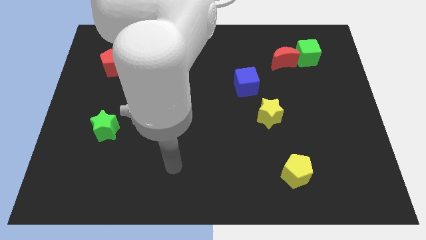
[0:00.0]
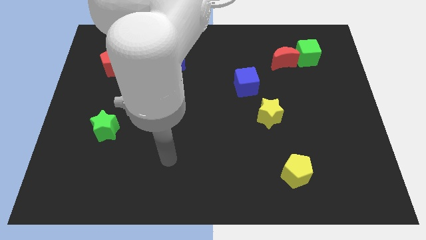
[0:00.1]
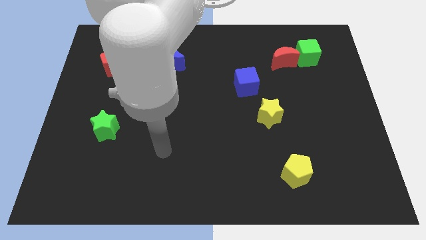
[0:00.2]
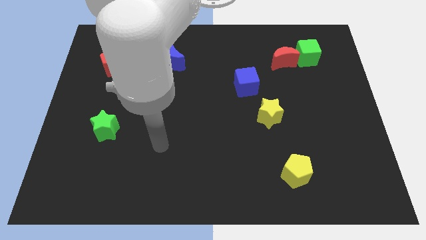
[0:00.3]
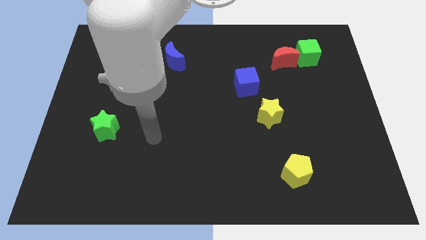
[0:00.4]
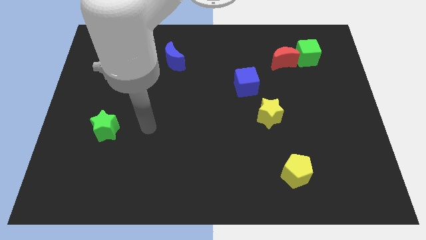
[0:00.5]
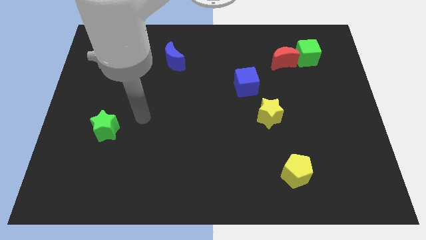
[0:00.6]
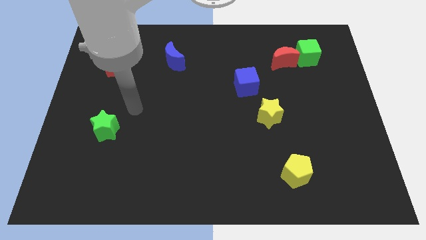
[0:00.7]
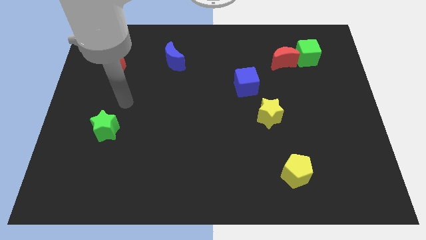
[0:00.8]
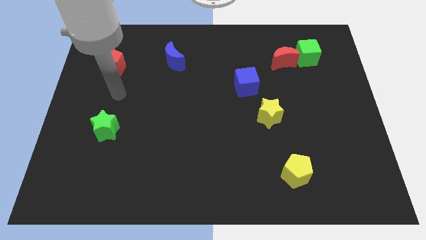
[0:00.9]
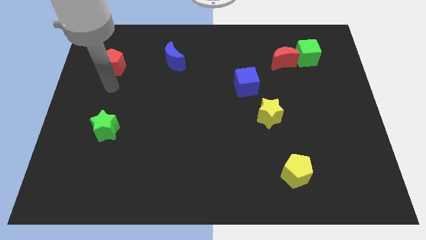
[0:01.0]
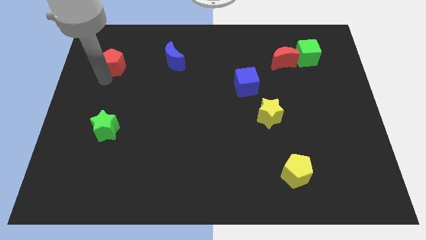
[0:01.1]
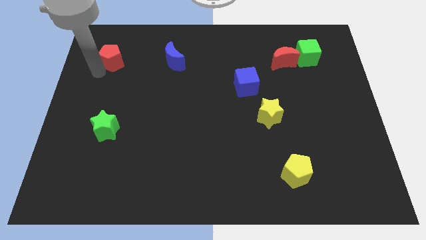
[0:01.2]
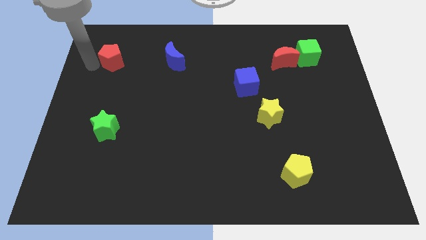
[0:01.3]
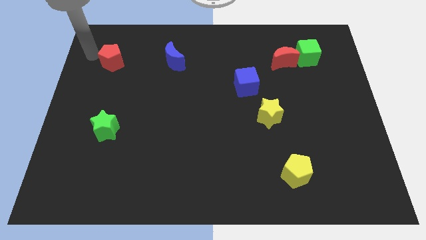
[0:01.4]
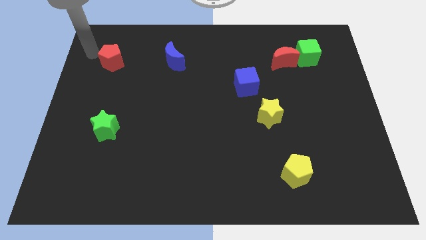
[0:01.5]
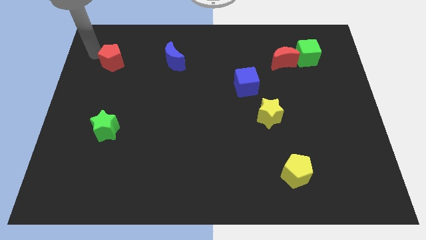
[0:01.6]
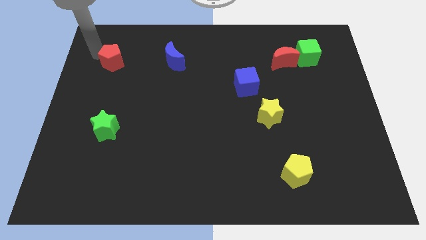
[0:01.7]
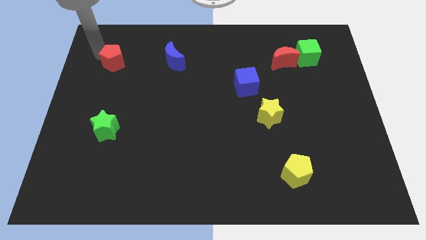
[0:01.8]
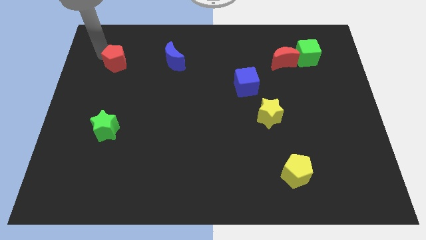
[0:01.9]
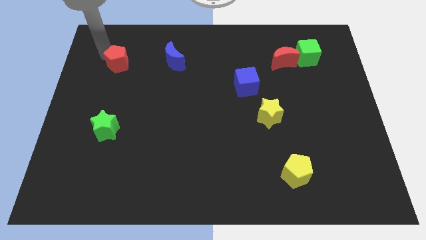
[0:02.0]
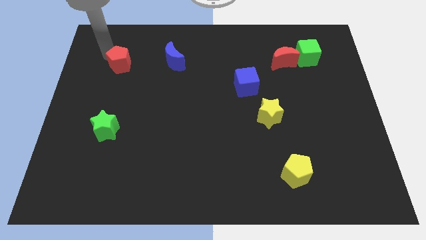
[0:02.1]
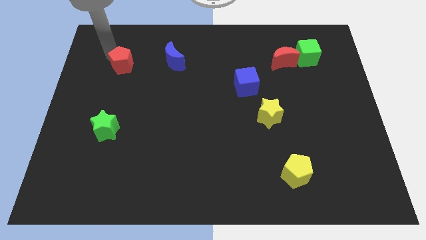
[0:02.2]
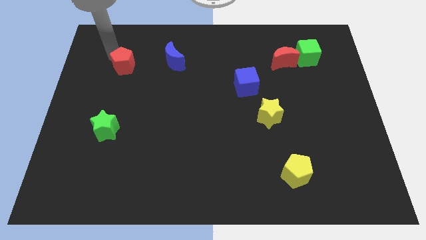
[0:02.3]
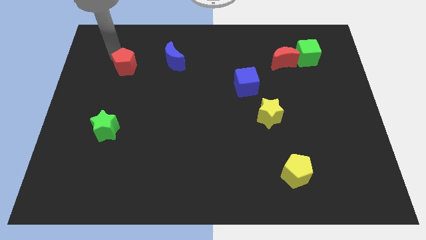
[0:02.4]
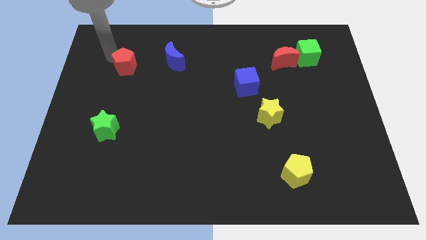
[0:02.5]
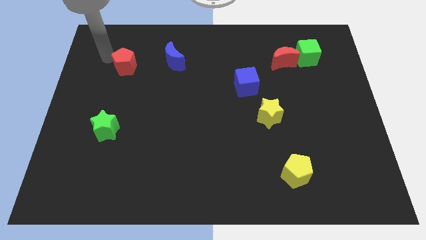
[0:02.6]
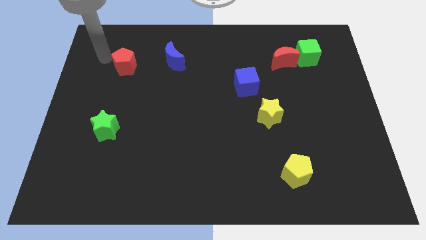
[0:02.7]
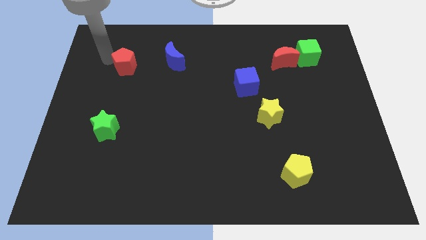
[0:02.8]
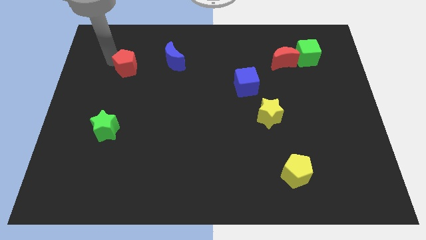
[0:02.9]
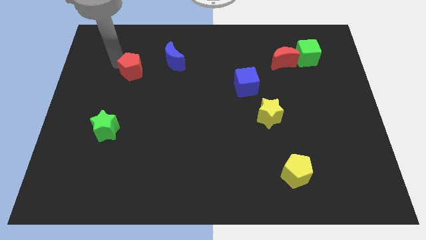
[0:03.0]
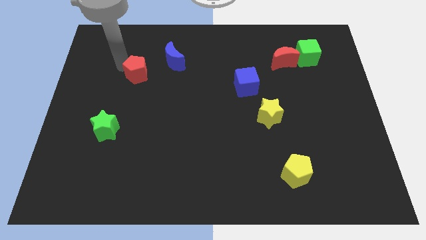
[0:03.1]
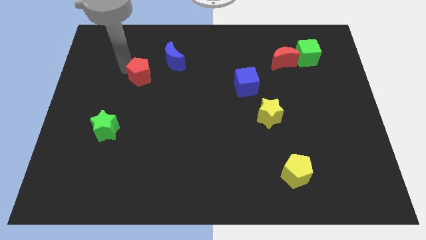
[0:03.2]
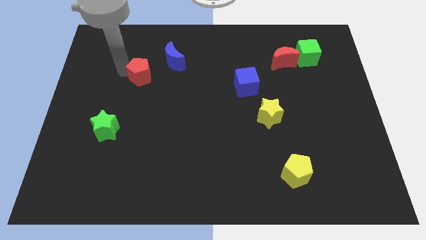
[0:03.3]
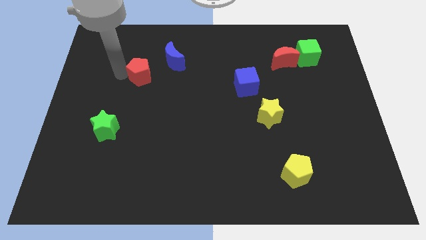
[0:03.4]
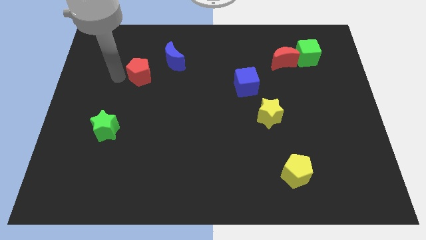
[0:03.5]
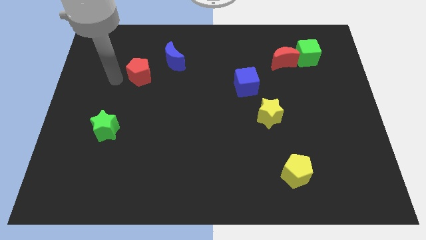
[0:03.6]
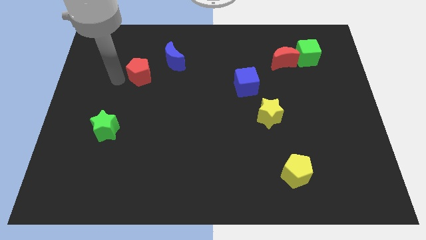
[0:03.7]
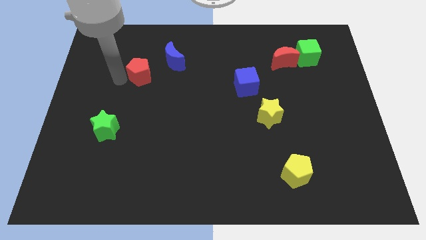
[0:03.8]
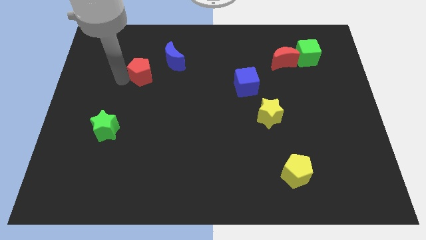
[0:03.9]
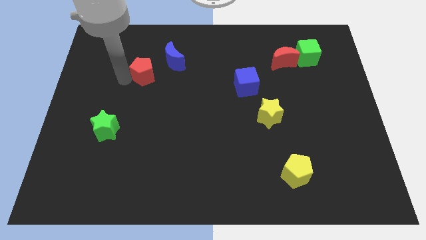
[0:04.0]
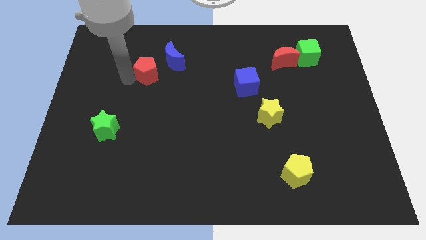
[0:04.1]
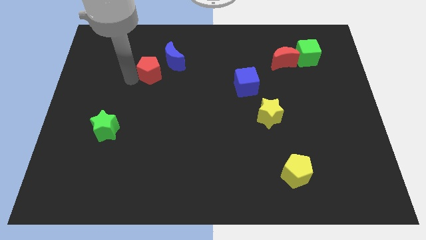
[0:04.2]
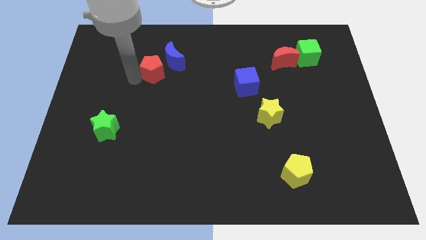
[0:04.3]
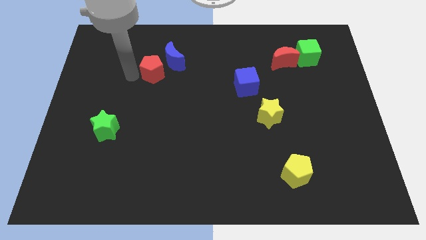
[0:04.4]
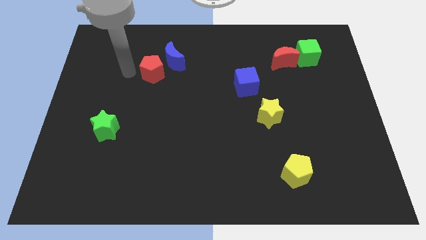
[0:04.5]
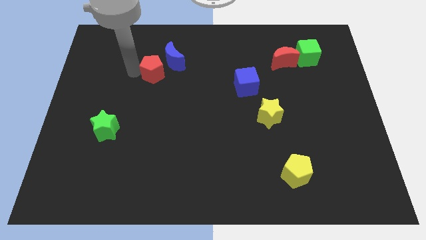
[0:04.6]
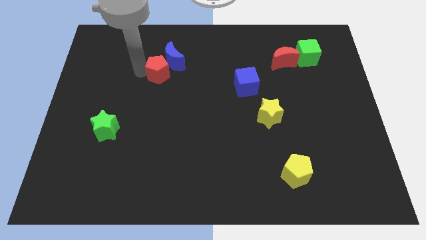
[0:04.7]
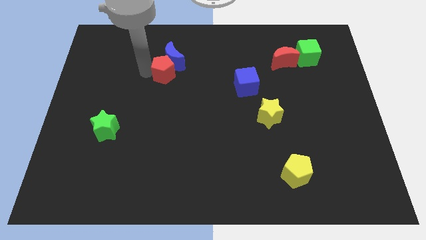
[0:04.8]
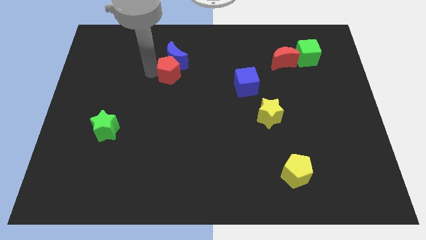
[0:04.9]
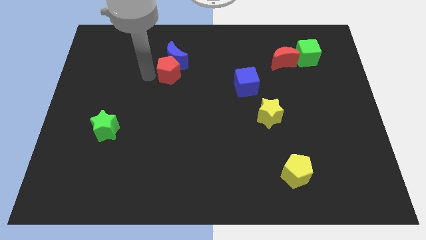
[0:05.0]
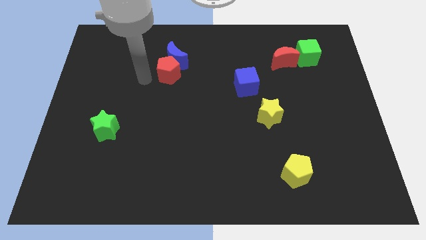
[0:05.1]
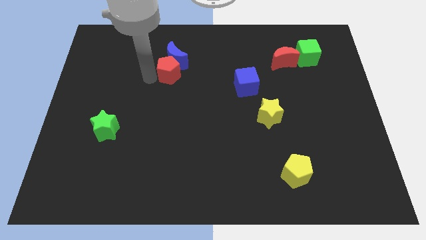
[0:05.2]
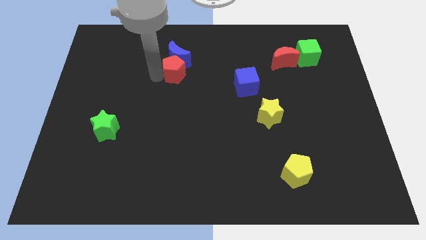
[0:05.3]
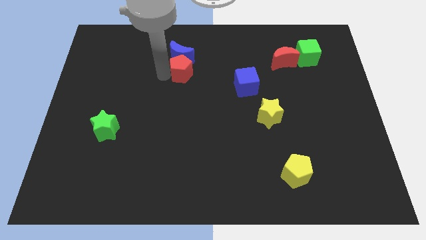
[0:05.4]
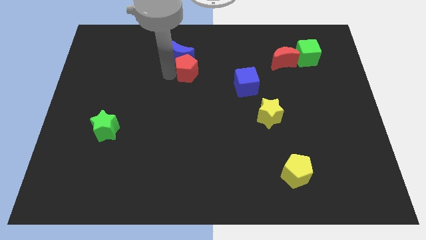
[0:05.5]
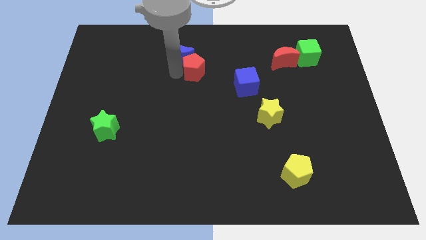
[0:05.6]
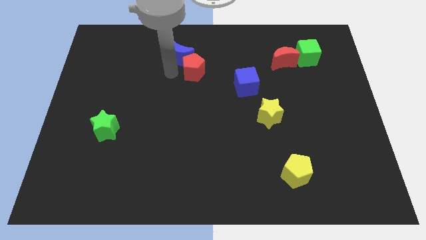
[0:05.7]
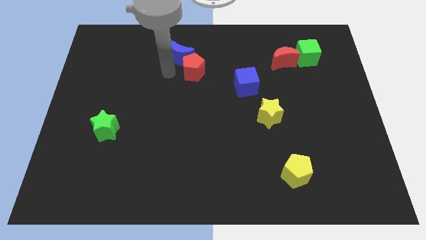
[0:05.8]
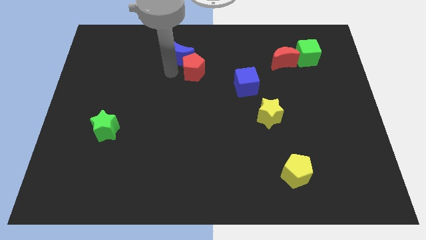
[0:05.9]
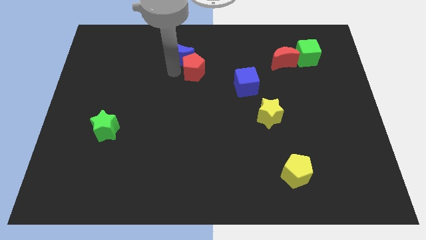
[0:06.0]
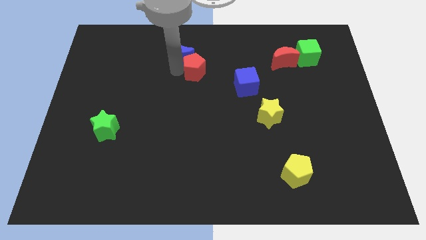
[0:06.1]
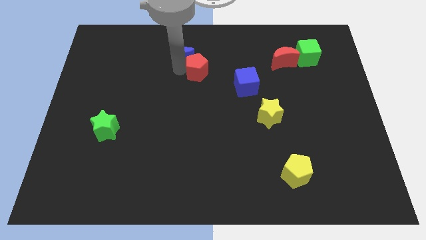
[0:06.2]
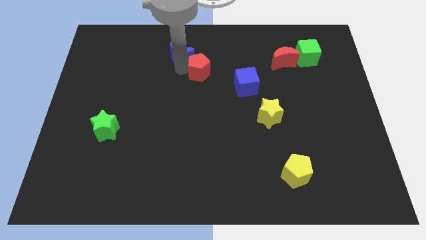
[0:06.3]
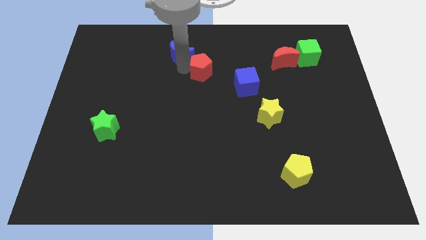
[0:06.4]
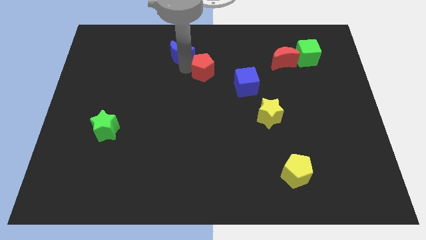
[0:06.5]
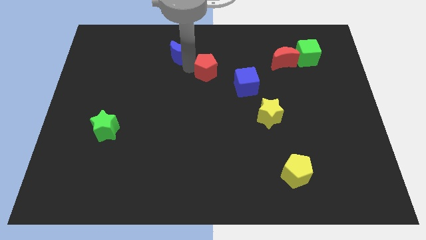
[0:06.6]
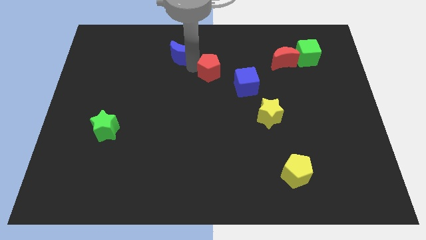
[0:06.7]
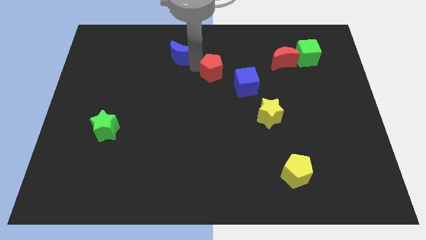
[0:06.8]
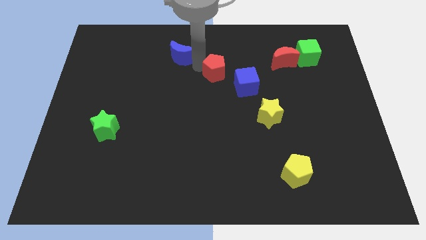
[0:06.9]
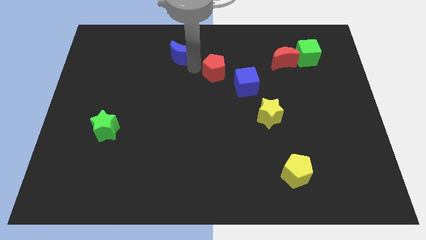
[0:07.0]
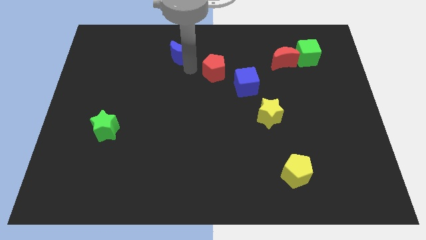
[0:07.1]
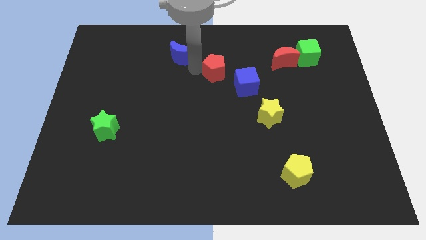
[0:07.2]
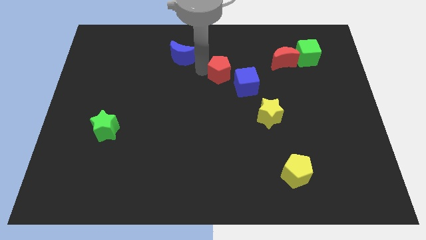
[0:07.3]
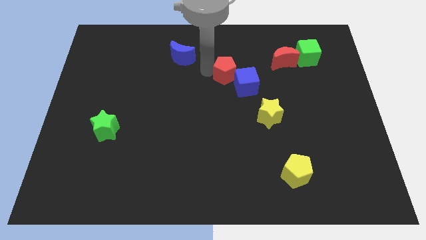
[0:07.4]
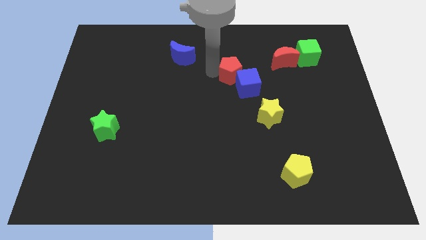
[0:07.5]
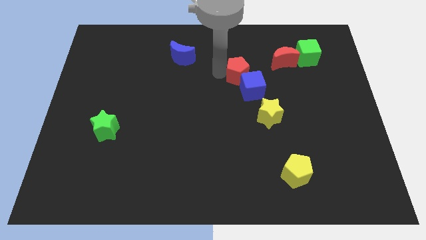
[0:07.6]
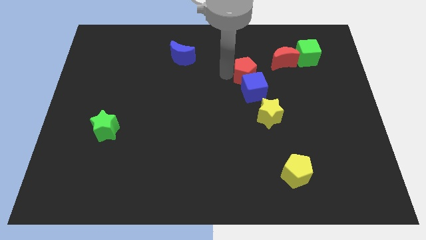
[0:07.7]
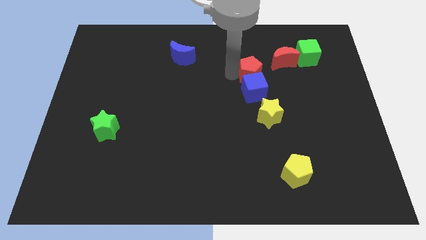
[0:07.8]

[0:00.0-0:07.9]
push the red pentagon above the yellow star

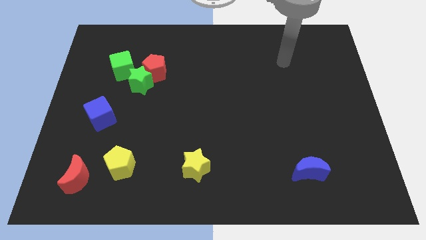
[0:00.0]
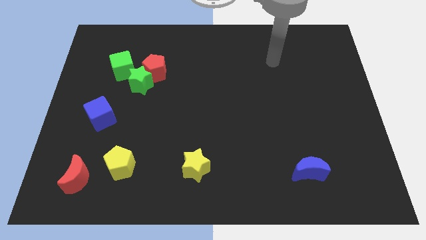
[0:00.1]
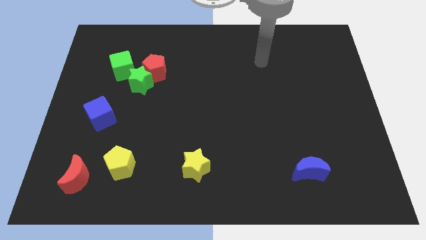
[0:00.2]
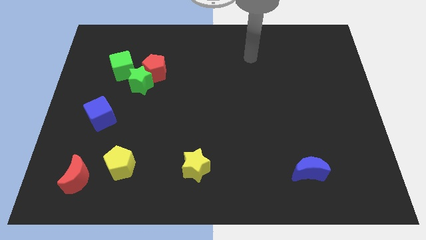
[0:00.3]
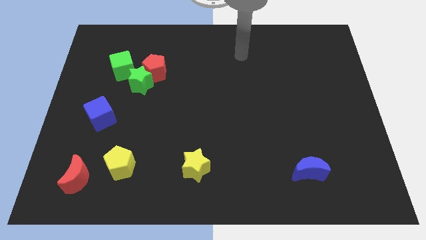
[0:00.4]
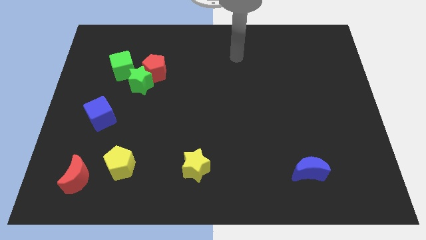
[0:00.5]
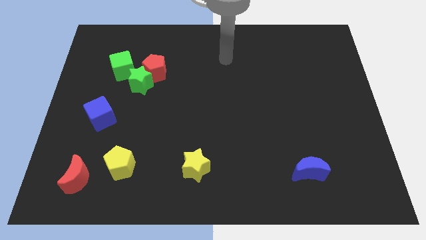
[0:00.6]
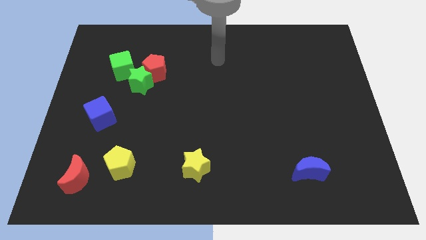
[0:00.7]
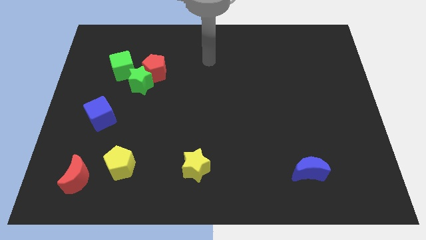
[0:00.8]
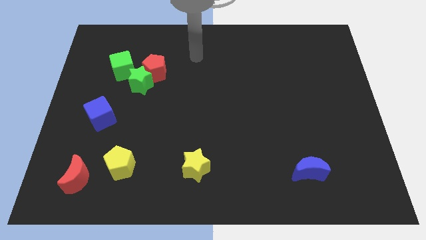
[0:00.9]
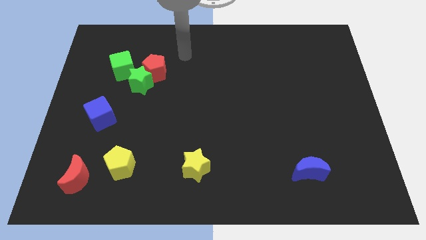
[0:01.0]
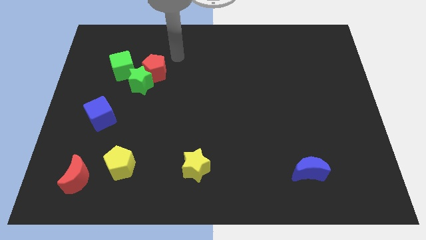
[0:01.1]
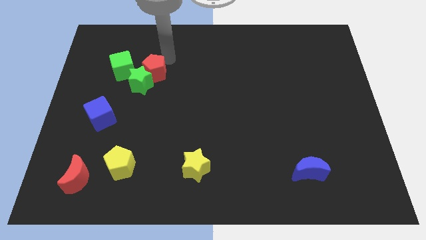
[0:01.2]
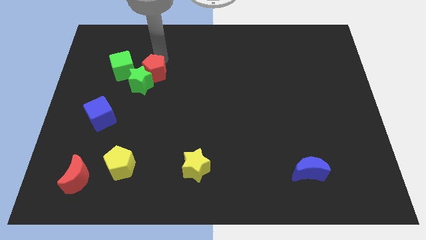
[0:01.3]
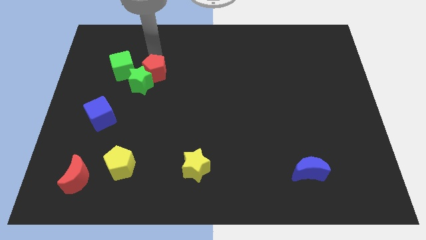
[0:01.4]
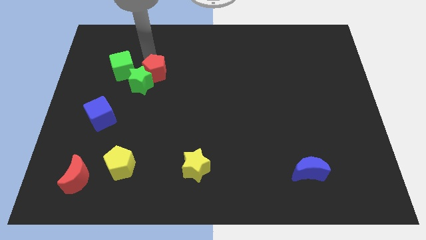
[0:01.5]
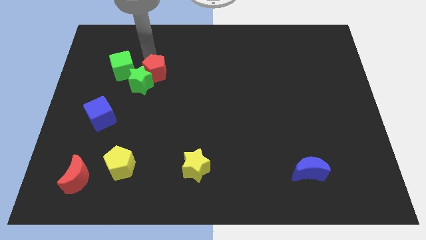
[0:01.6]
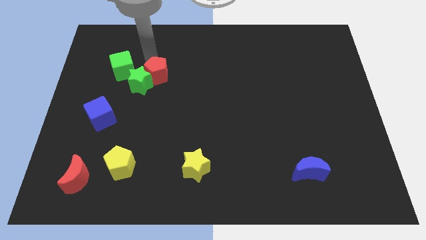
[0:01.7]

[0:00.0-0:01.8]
put the red pentagon to the bottom right side of the green cube
